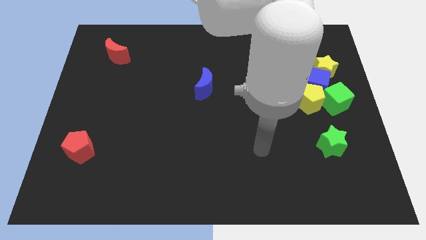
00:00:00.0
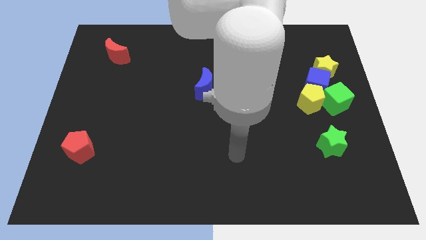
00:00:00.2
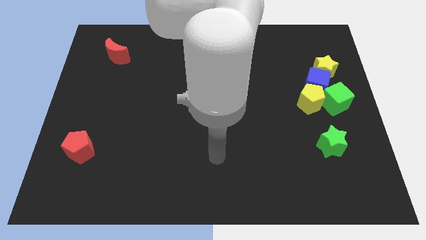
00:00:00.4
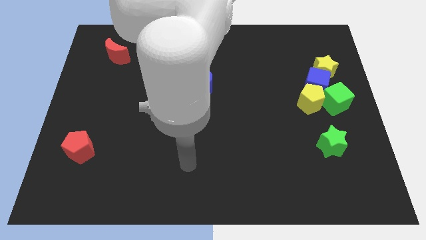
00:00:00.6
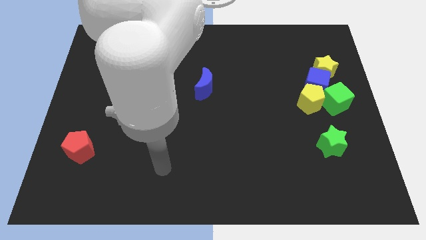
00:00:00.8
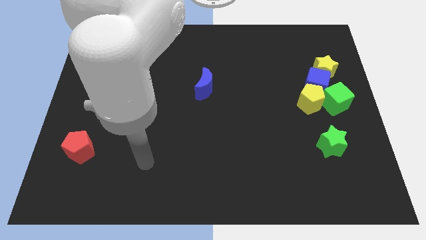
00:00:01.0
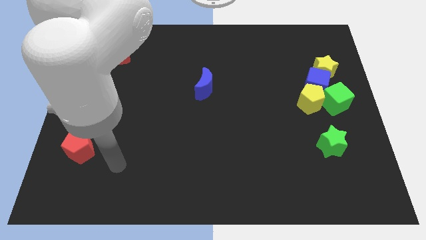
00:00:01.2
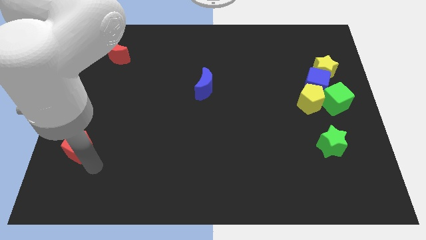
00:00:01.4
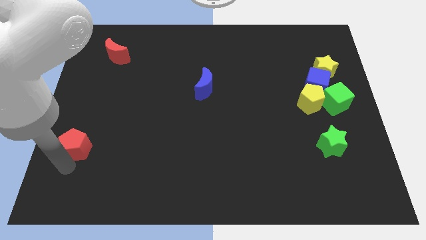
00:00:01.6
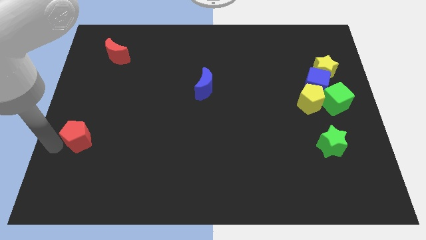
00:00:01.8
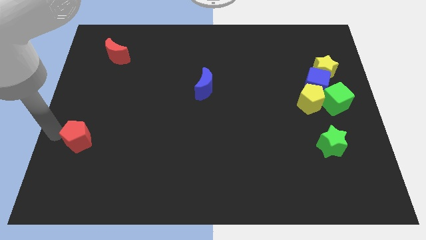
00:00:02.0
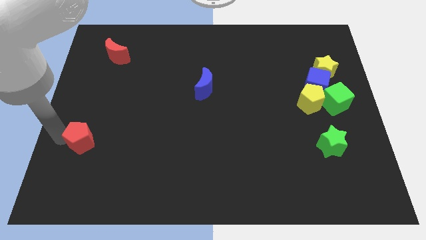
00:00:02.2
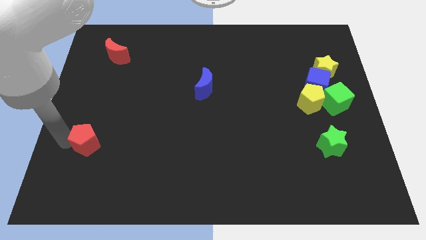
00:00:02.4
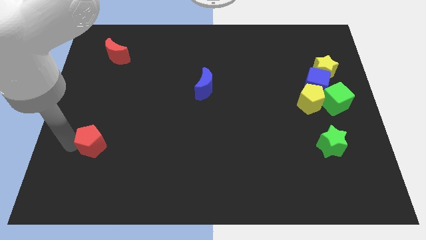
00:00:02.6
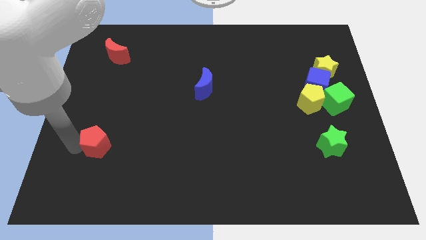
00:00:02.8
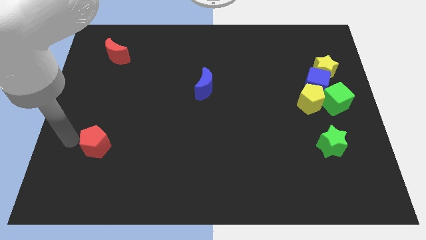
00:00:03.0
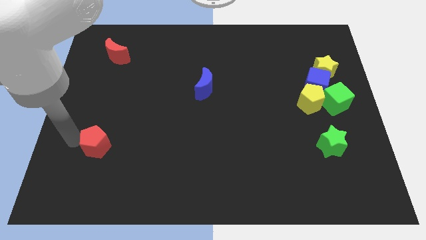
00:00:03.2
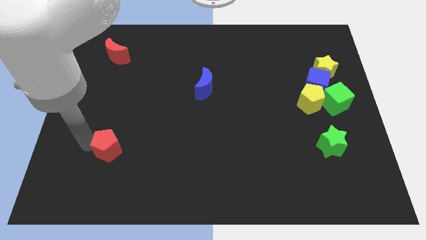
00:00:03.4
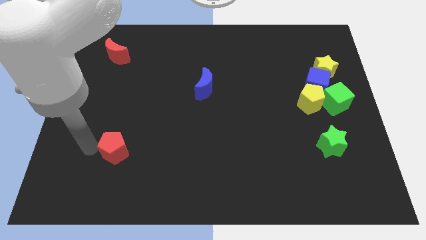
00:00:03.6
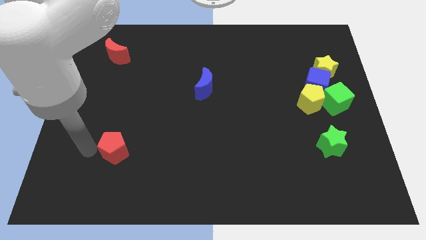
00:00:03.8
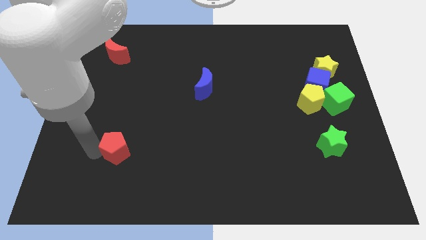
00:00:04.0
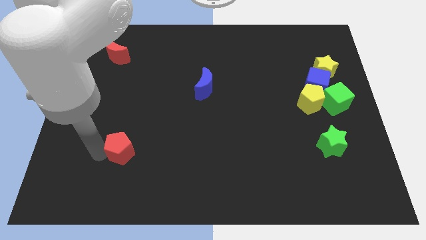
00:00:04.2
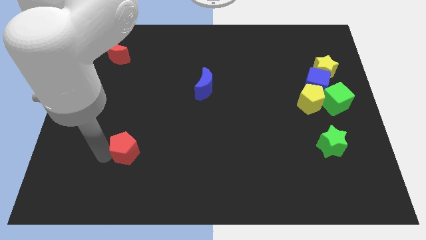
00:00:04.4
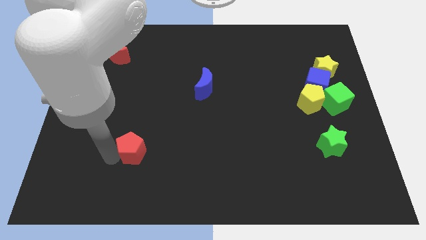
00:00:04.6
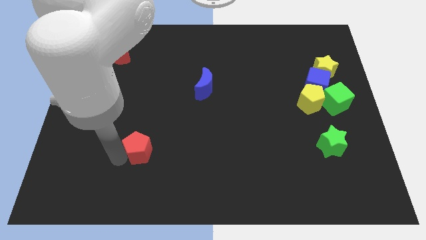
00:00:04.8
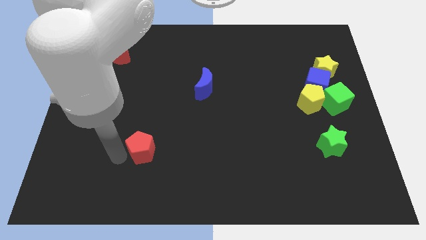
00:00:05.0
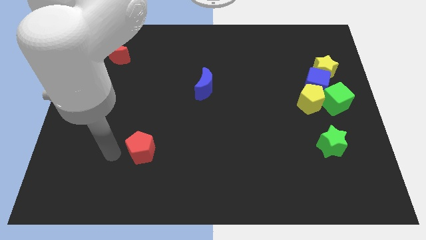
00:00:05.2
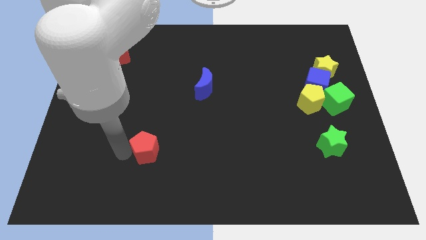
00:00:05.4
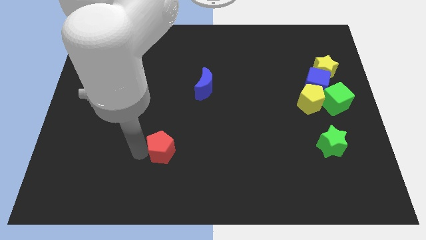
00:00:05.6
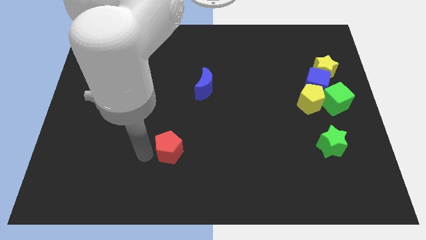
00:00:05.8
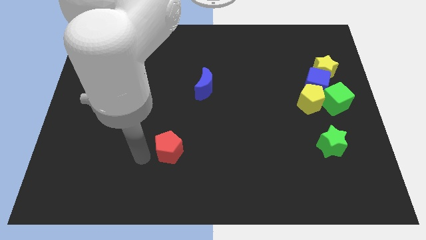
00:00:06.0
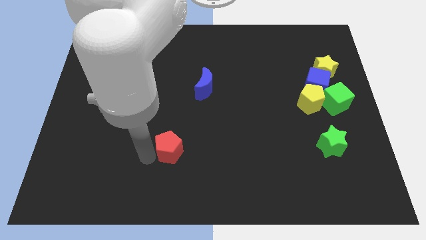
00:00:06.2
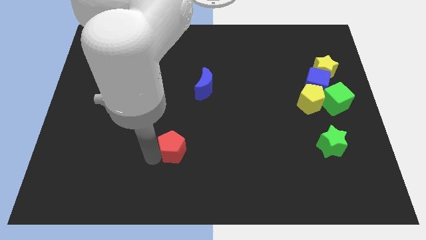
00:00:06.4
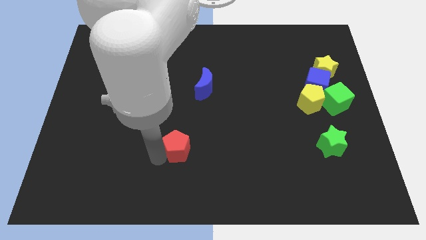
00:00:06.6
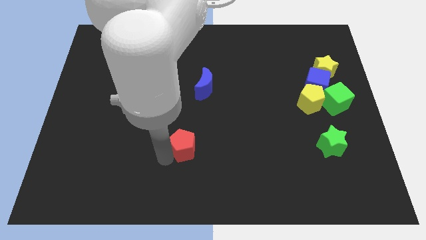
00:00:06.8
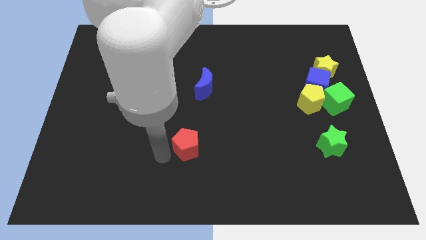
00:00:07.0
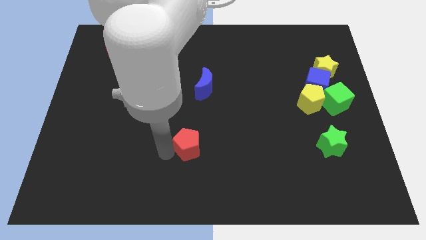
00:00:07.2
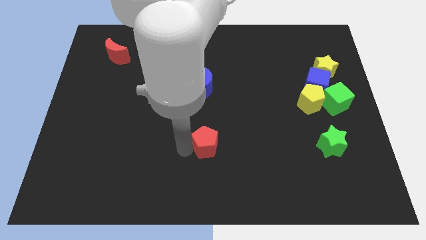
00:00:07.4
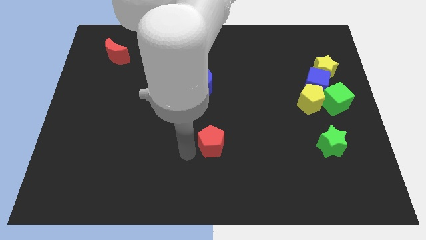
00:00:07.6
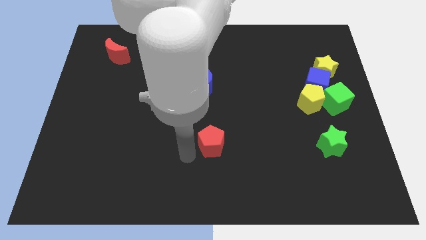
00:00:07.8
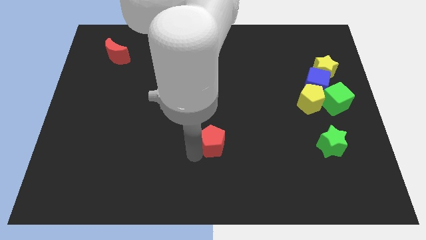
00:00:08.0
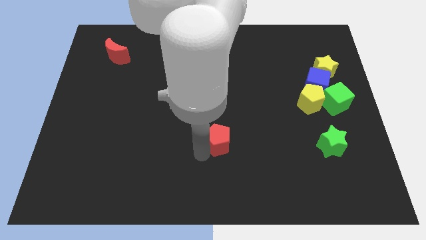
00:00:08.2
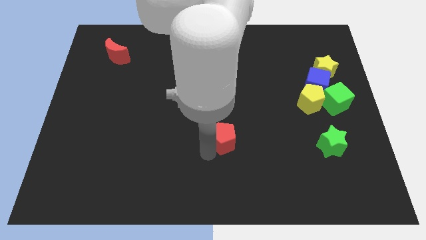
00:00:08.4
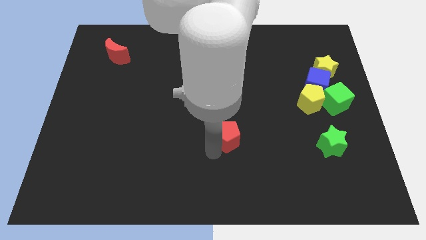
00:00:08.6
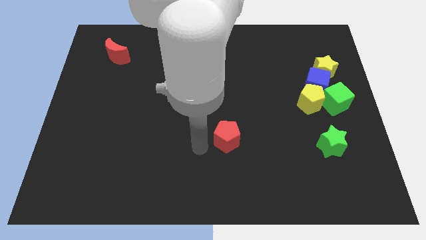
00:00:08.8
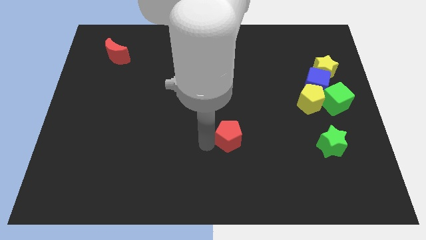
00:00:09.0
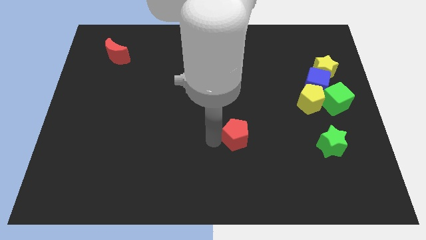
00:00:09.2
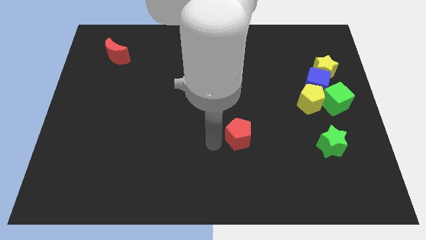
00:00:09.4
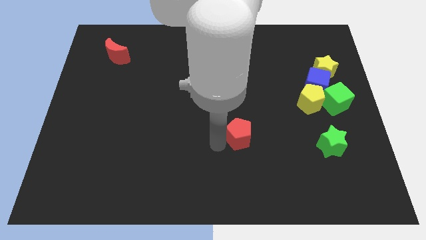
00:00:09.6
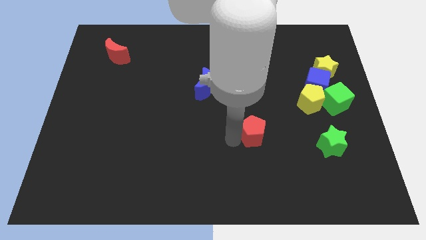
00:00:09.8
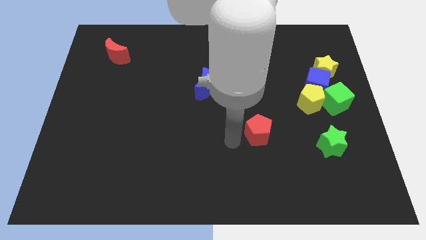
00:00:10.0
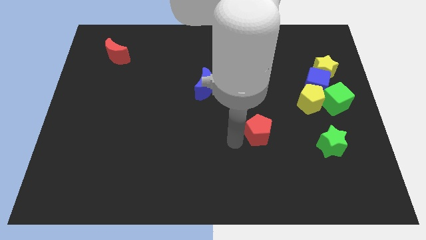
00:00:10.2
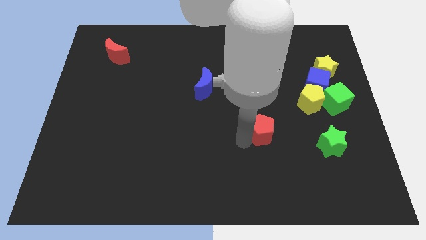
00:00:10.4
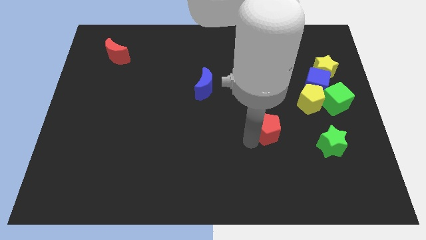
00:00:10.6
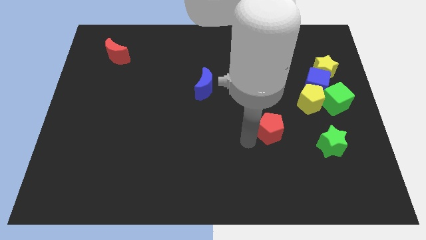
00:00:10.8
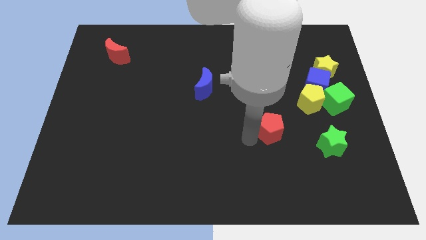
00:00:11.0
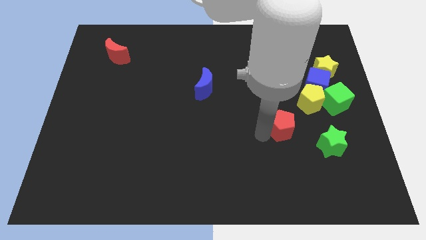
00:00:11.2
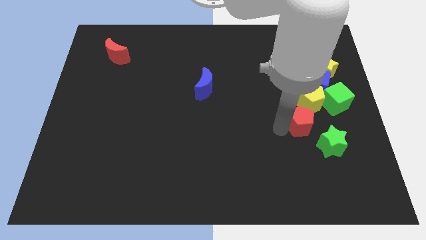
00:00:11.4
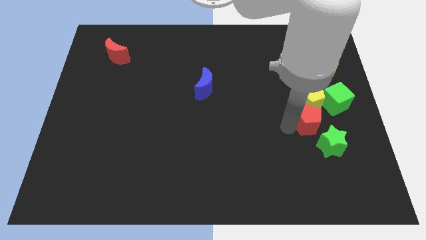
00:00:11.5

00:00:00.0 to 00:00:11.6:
slide the red pentagon to the bottom of the blue cube
